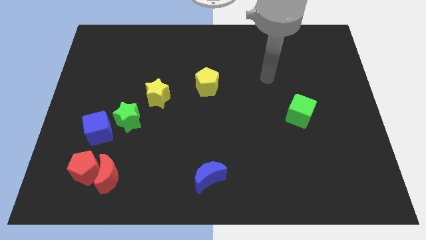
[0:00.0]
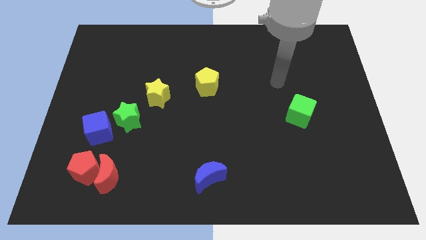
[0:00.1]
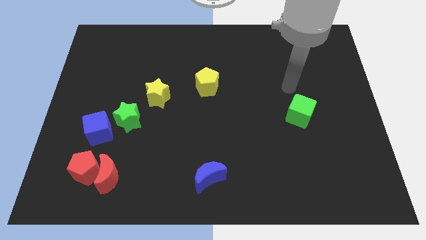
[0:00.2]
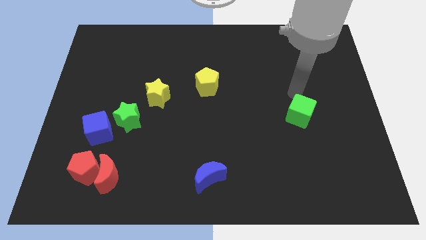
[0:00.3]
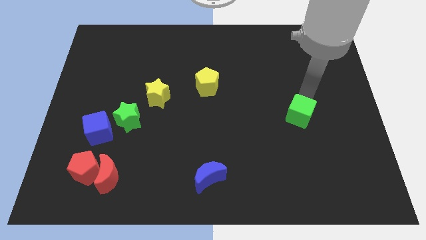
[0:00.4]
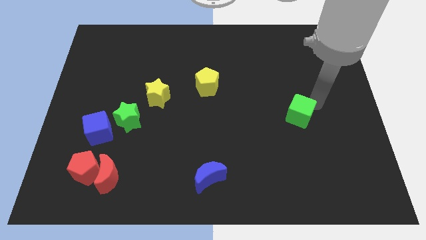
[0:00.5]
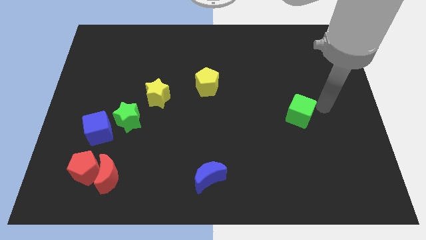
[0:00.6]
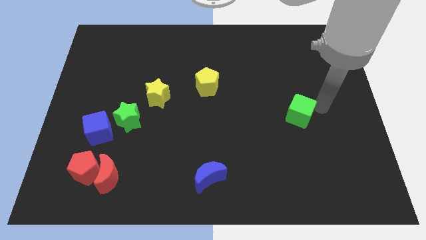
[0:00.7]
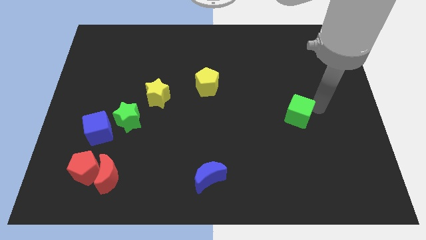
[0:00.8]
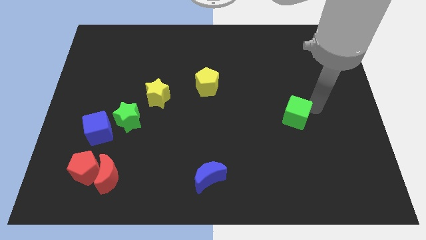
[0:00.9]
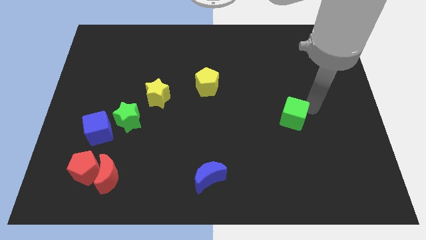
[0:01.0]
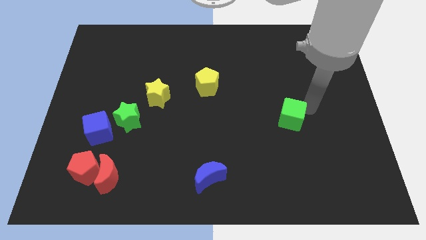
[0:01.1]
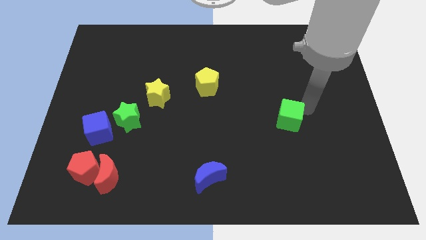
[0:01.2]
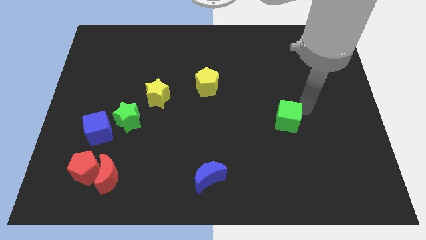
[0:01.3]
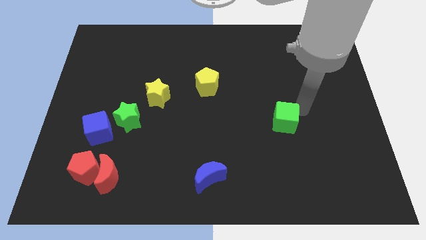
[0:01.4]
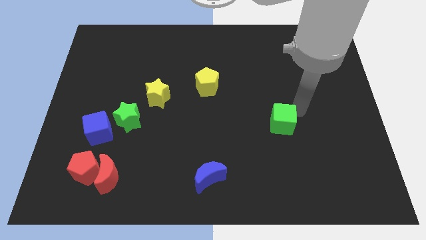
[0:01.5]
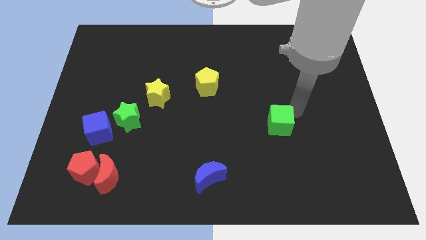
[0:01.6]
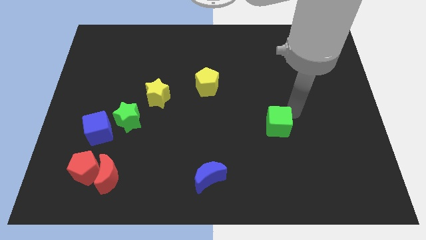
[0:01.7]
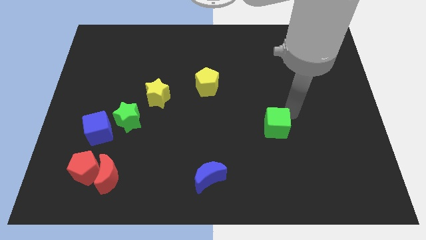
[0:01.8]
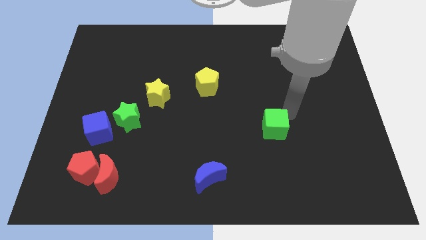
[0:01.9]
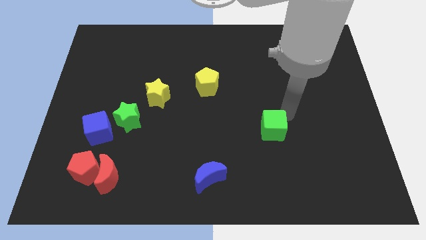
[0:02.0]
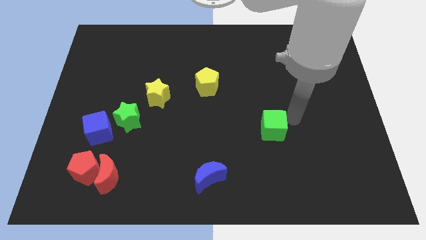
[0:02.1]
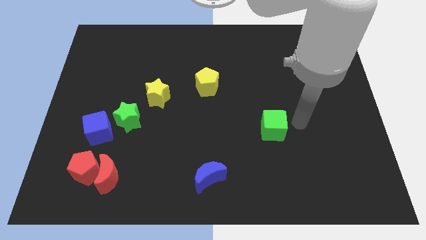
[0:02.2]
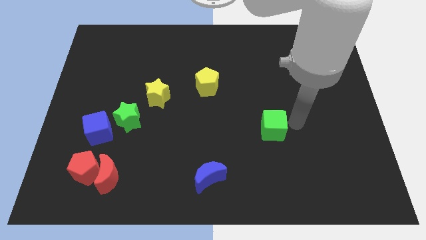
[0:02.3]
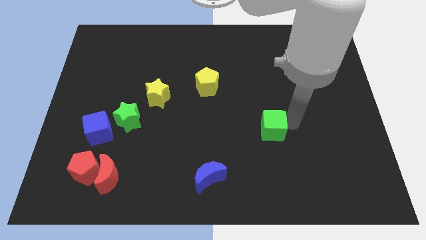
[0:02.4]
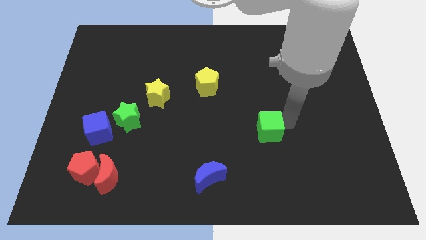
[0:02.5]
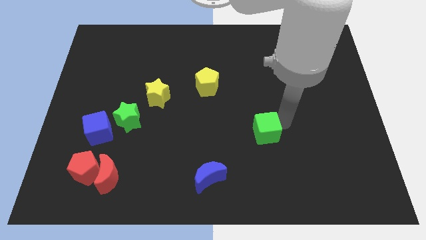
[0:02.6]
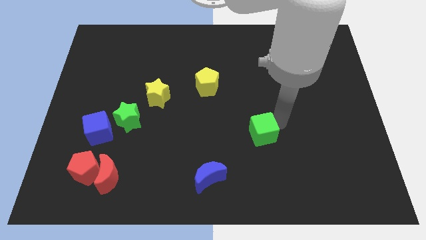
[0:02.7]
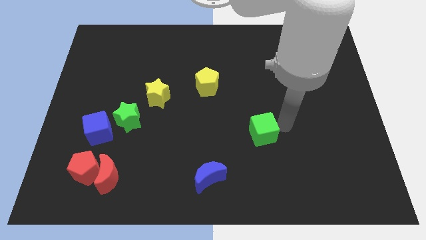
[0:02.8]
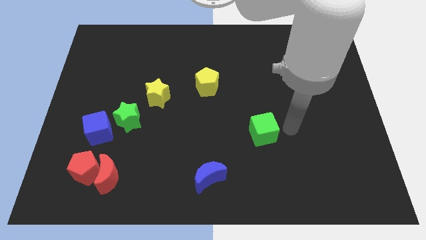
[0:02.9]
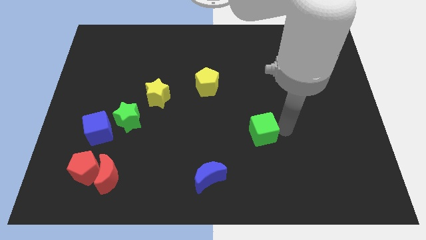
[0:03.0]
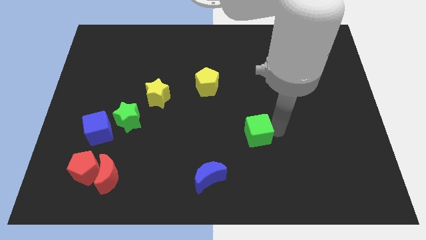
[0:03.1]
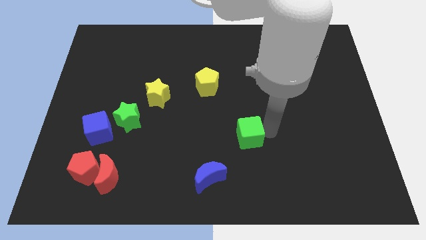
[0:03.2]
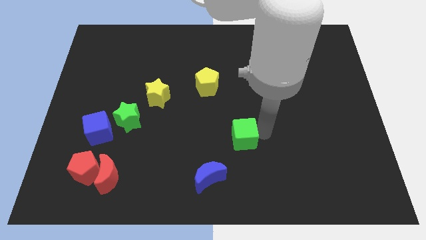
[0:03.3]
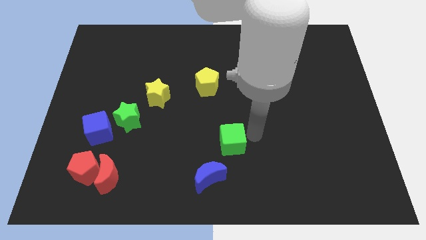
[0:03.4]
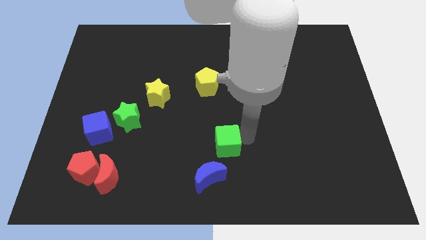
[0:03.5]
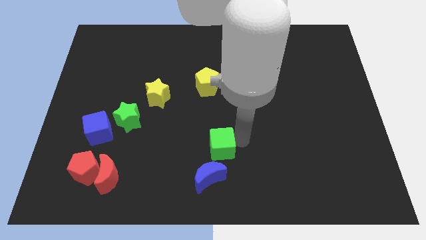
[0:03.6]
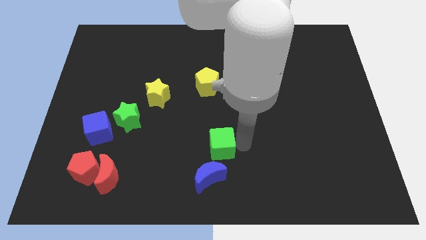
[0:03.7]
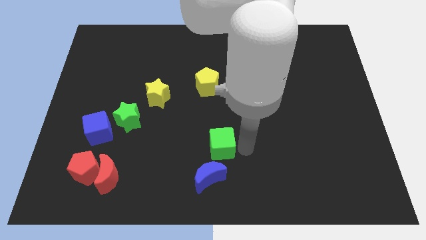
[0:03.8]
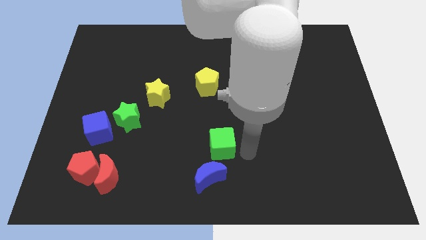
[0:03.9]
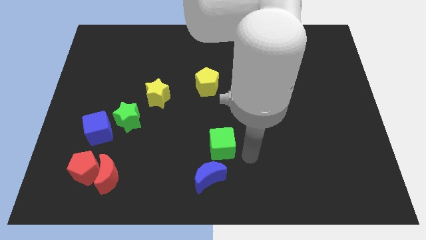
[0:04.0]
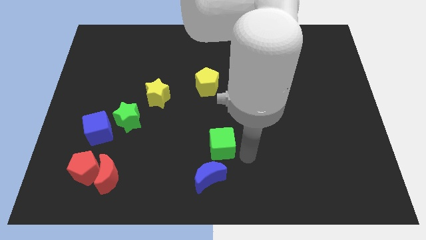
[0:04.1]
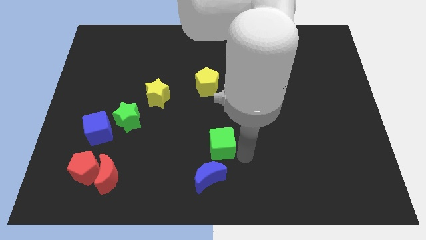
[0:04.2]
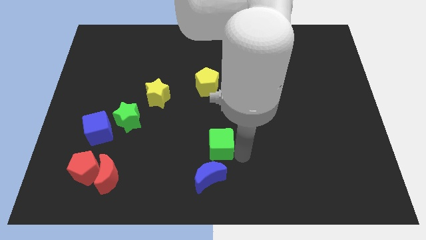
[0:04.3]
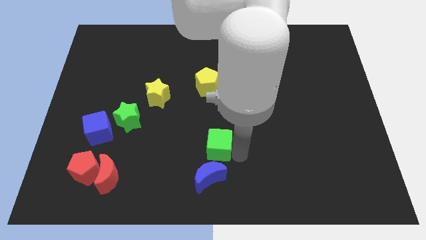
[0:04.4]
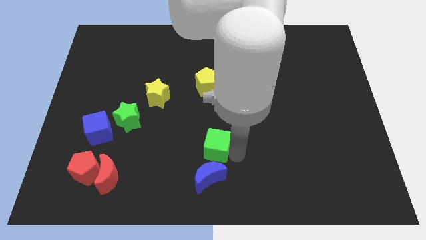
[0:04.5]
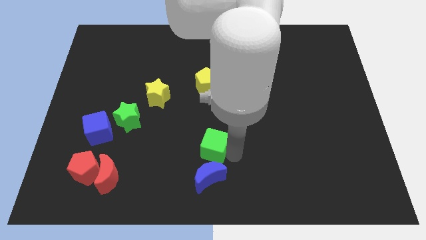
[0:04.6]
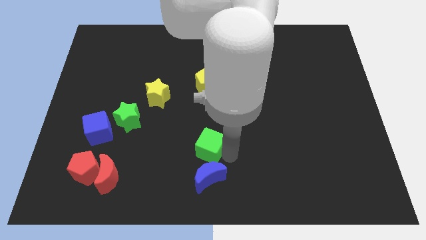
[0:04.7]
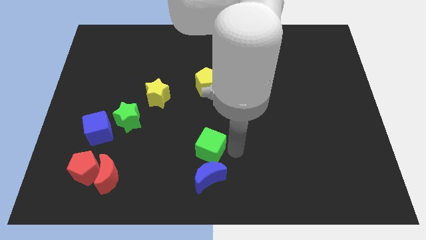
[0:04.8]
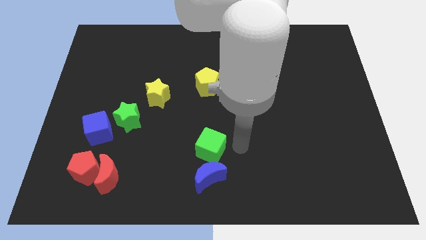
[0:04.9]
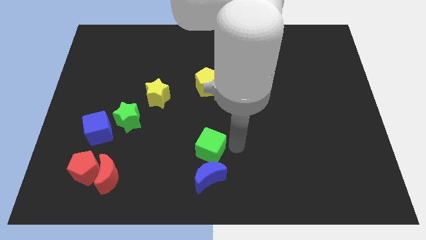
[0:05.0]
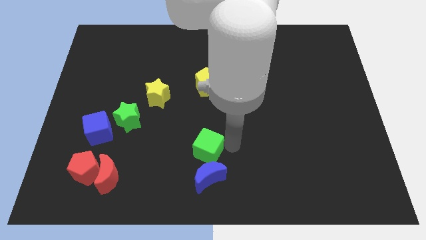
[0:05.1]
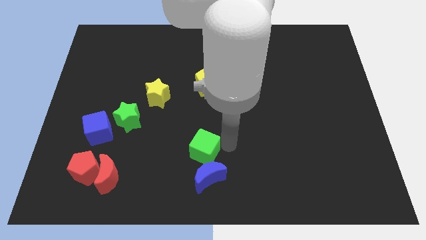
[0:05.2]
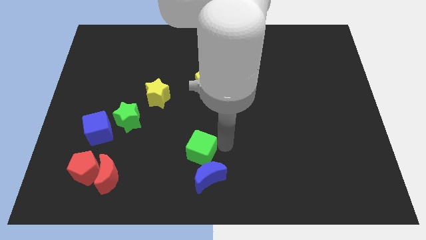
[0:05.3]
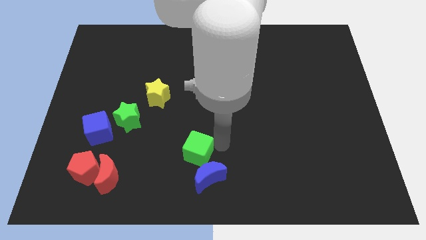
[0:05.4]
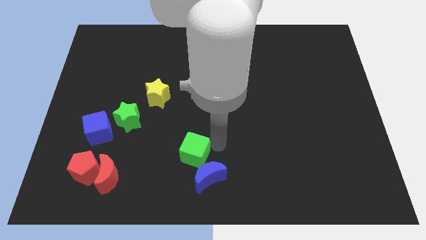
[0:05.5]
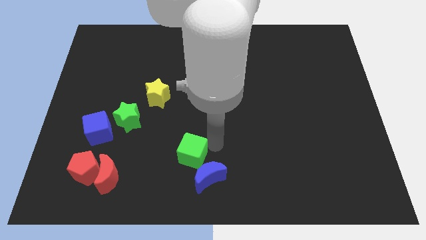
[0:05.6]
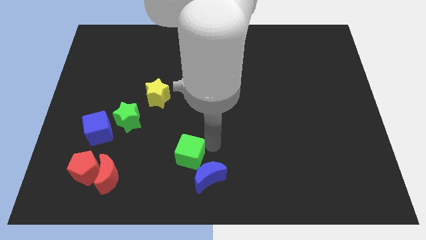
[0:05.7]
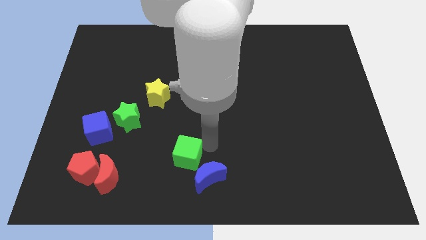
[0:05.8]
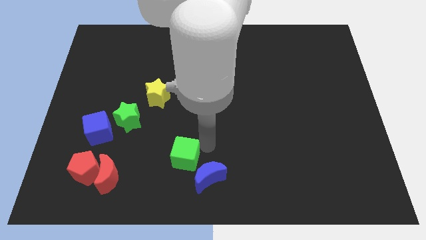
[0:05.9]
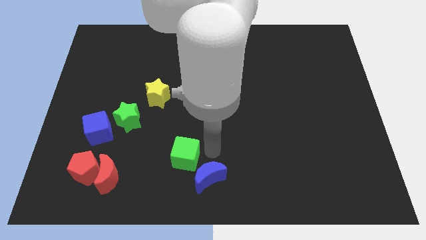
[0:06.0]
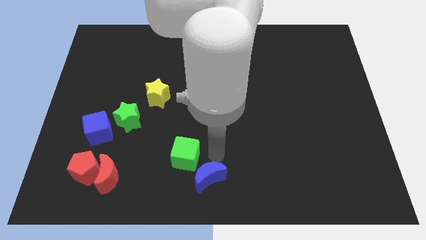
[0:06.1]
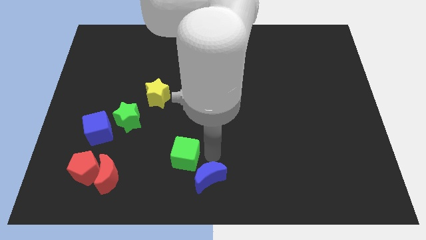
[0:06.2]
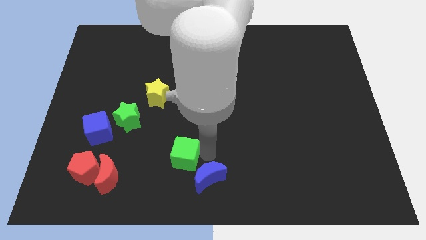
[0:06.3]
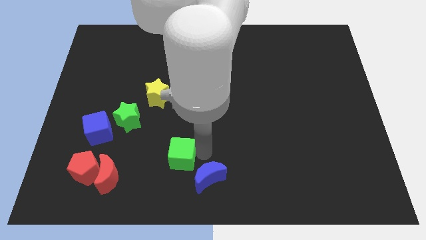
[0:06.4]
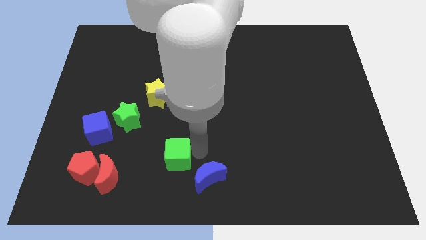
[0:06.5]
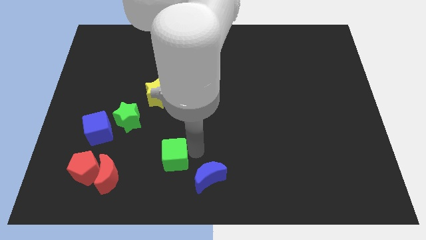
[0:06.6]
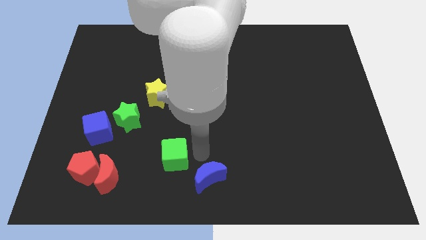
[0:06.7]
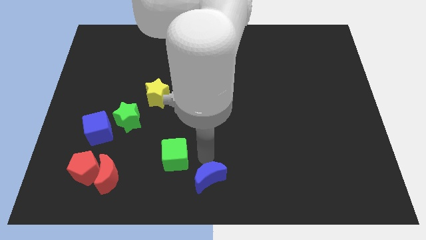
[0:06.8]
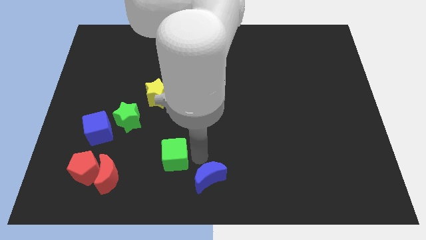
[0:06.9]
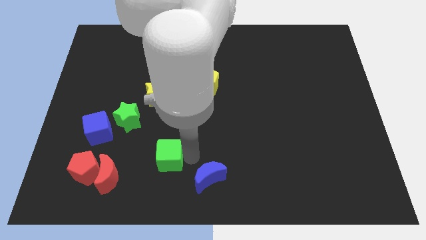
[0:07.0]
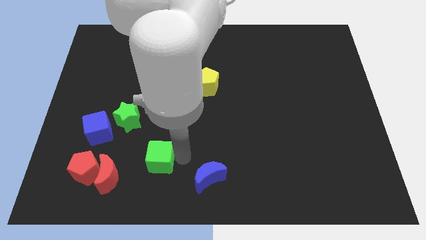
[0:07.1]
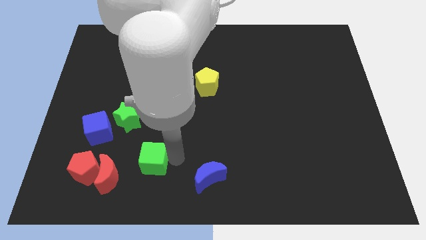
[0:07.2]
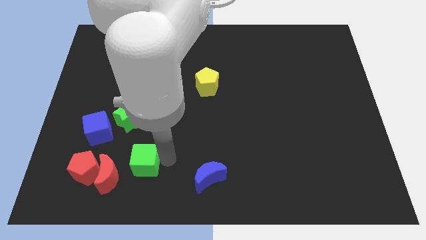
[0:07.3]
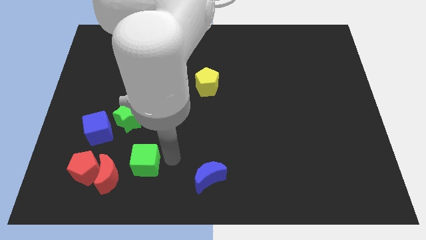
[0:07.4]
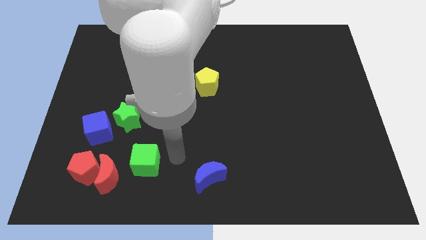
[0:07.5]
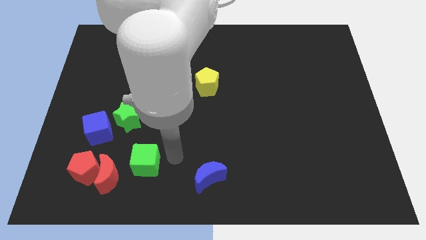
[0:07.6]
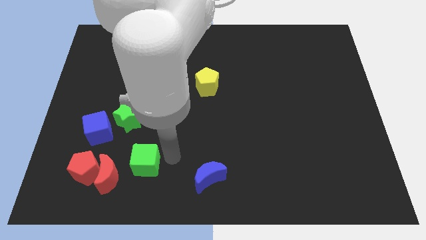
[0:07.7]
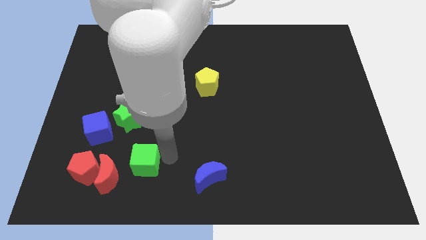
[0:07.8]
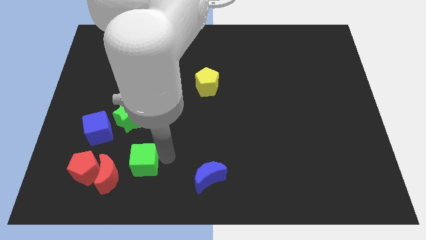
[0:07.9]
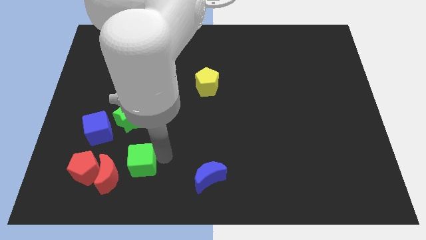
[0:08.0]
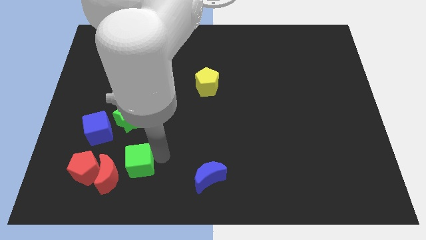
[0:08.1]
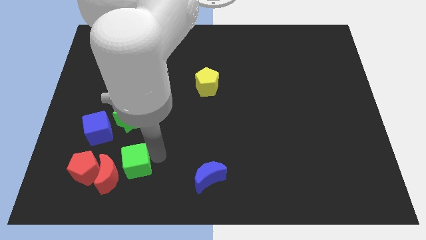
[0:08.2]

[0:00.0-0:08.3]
push the green cube to the red moon
